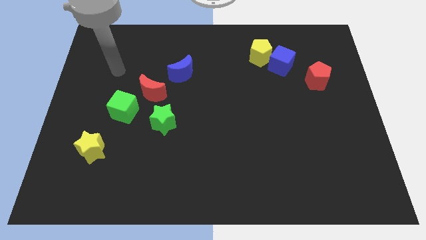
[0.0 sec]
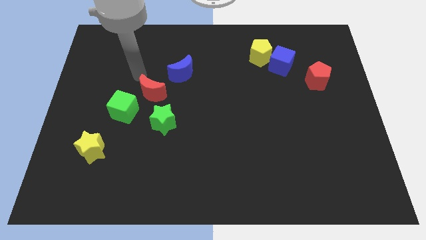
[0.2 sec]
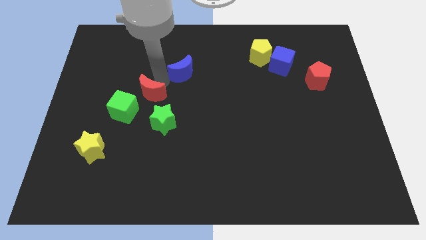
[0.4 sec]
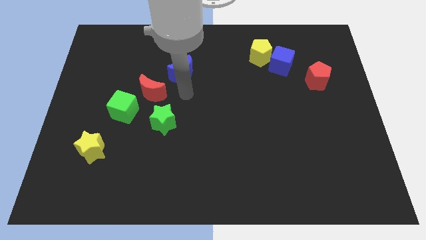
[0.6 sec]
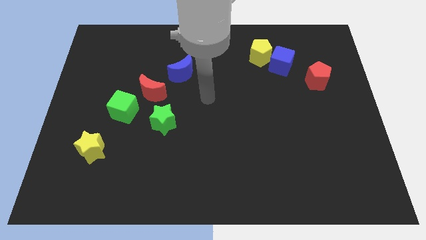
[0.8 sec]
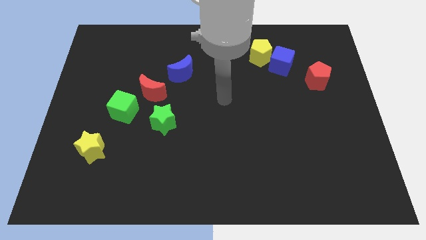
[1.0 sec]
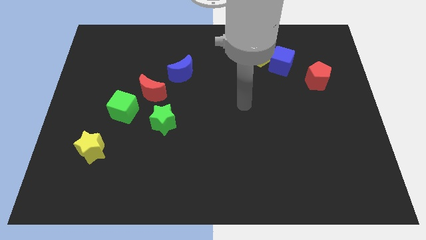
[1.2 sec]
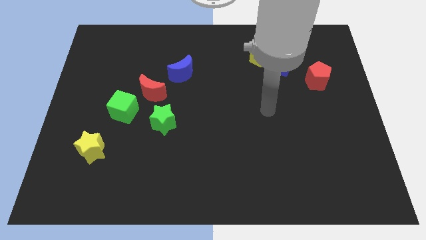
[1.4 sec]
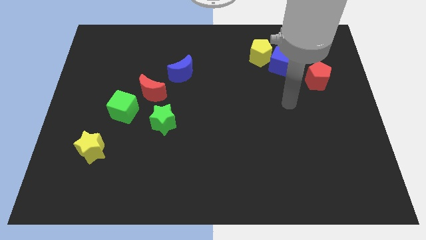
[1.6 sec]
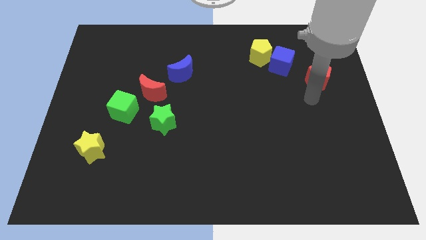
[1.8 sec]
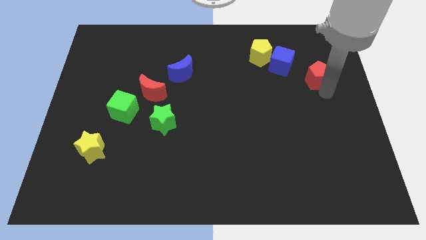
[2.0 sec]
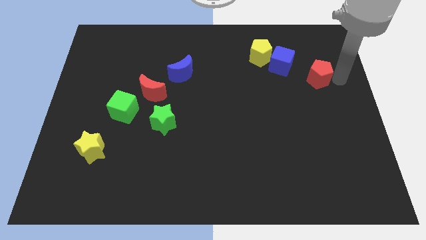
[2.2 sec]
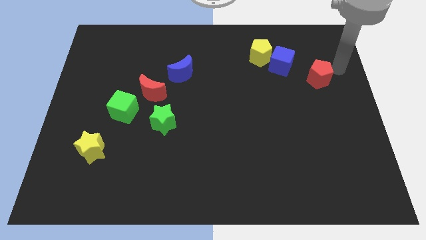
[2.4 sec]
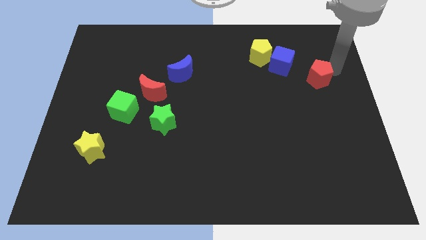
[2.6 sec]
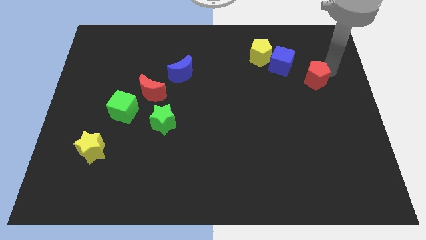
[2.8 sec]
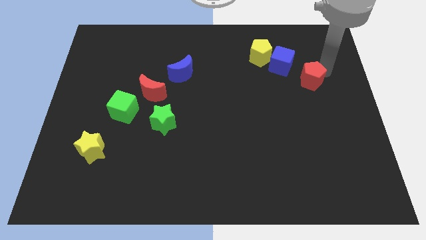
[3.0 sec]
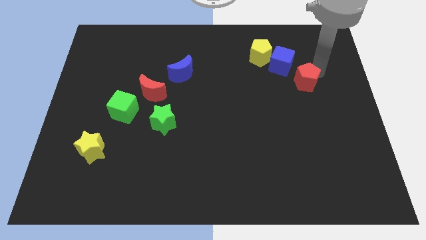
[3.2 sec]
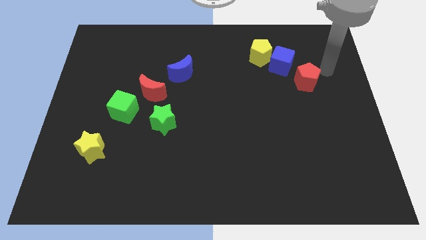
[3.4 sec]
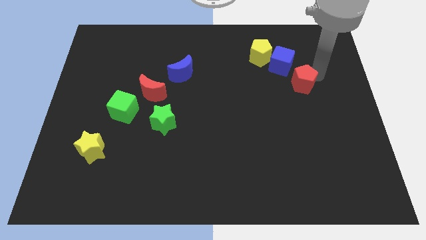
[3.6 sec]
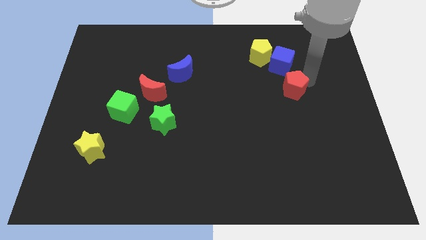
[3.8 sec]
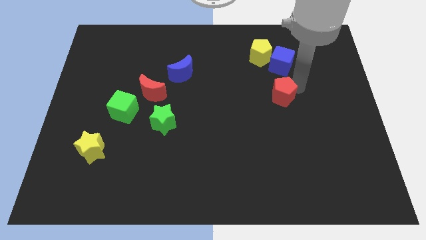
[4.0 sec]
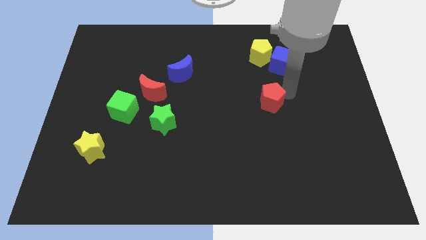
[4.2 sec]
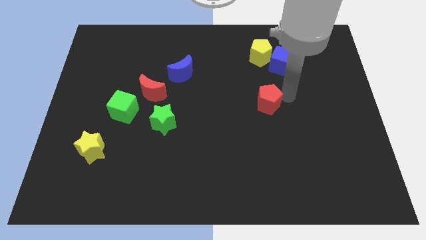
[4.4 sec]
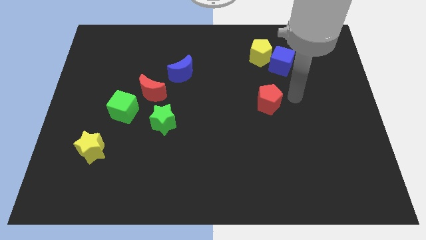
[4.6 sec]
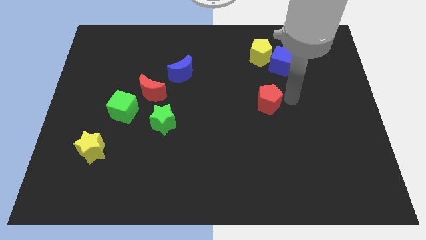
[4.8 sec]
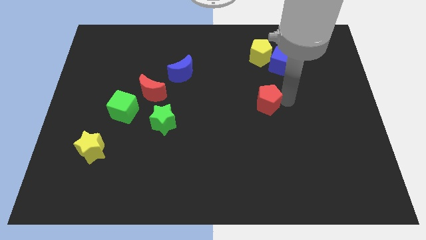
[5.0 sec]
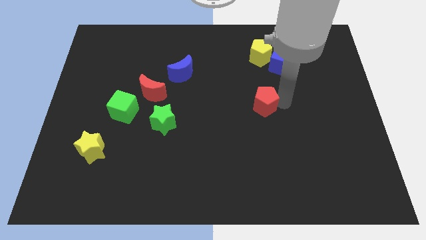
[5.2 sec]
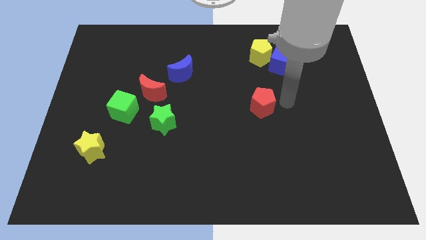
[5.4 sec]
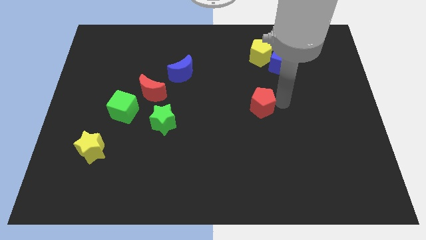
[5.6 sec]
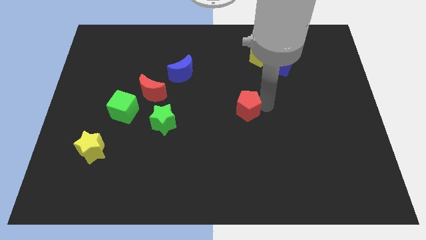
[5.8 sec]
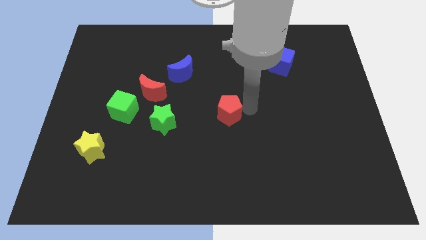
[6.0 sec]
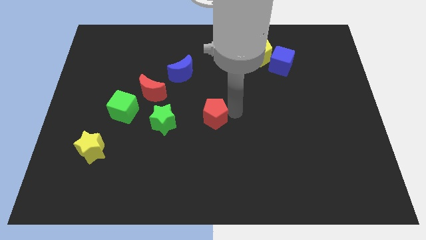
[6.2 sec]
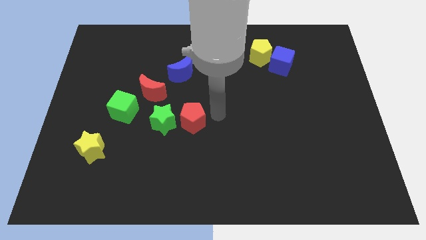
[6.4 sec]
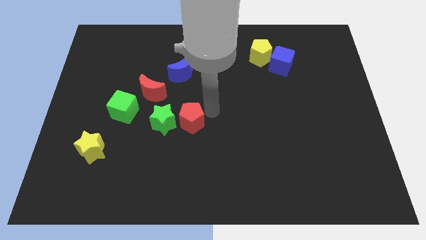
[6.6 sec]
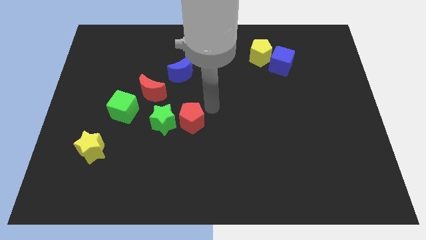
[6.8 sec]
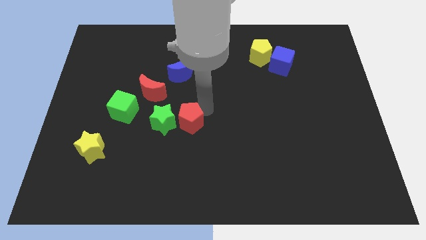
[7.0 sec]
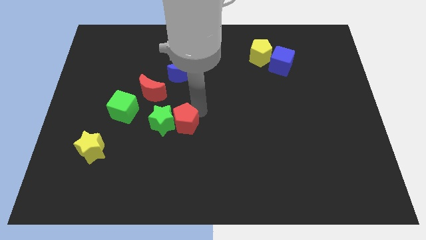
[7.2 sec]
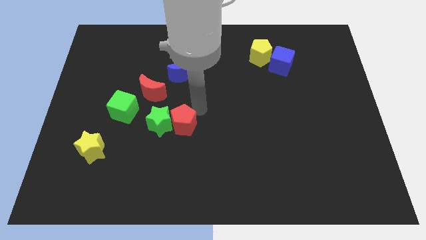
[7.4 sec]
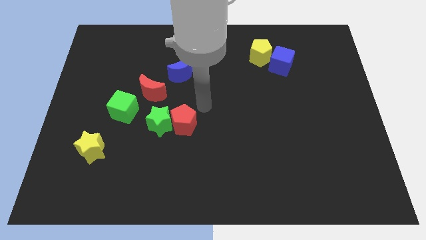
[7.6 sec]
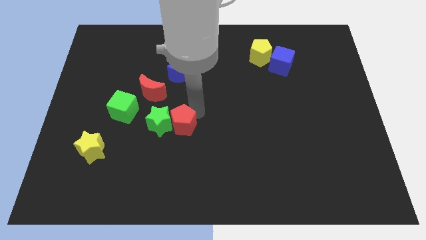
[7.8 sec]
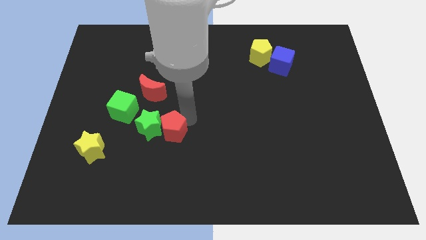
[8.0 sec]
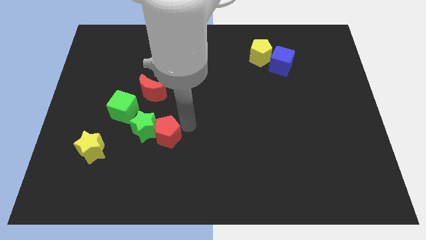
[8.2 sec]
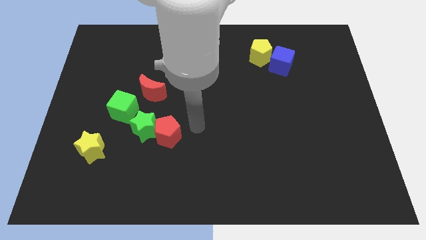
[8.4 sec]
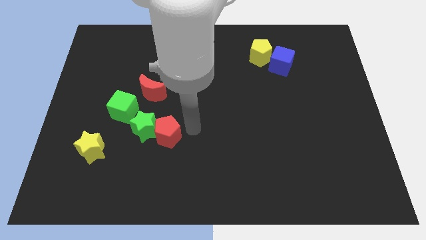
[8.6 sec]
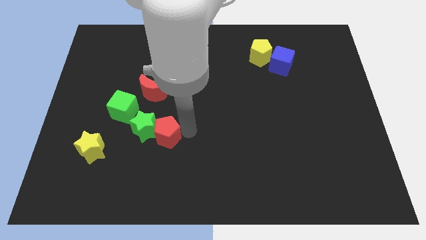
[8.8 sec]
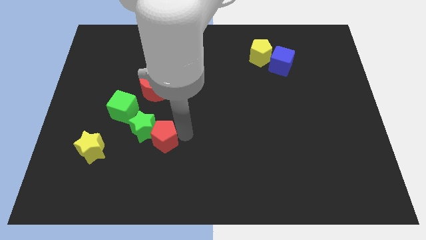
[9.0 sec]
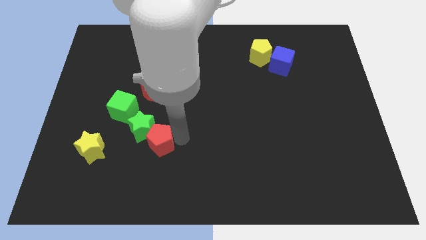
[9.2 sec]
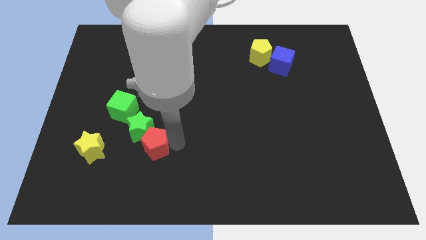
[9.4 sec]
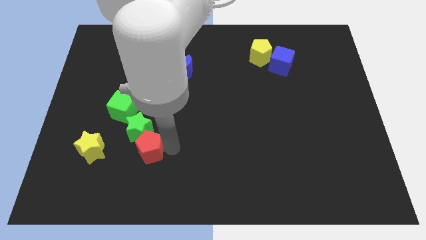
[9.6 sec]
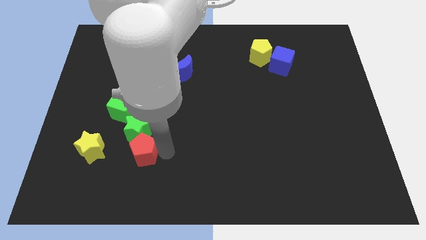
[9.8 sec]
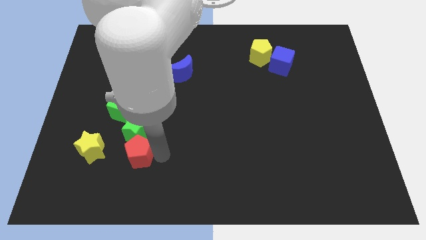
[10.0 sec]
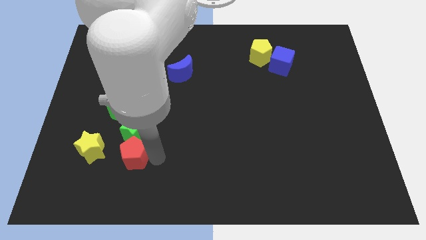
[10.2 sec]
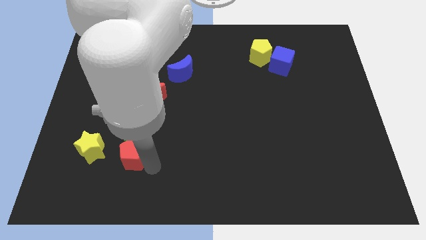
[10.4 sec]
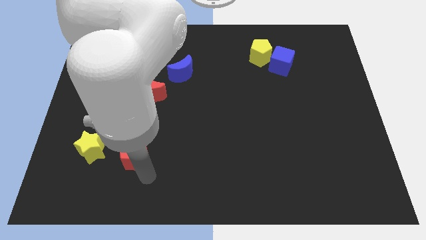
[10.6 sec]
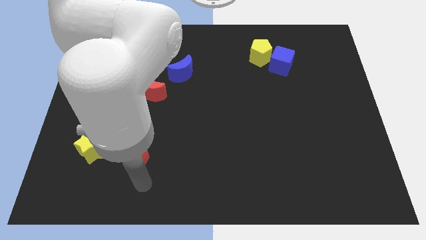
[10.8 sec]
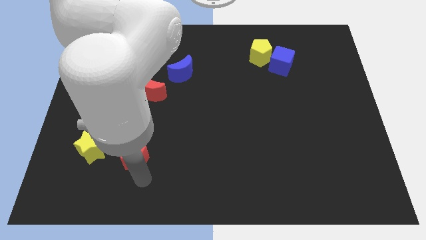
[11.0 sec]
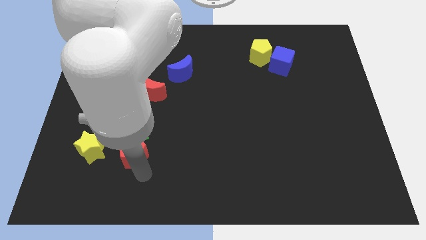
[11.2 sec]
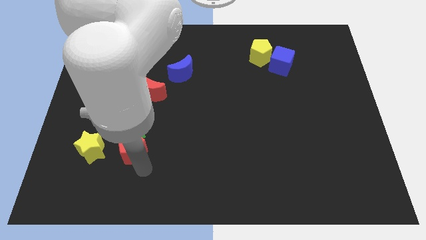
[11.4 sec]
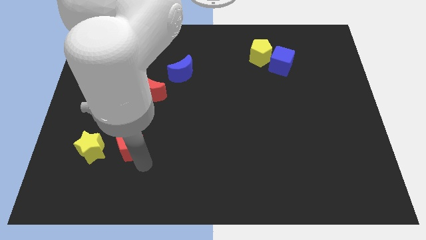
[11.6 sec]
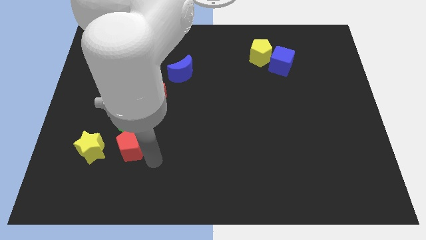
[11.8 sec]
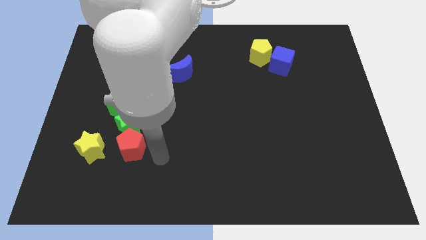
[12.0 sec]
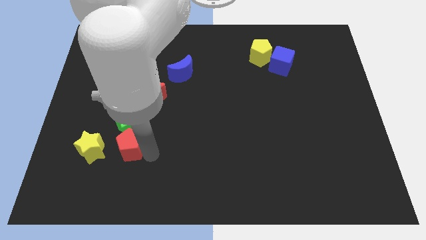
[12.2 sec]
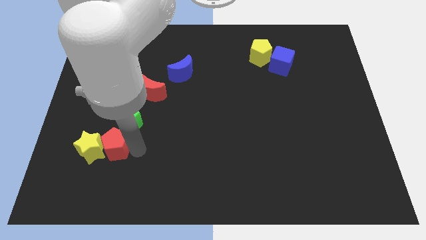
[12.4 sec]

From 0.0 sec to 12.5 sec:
move the red pentagon close to the yellow star

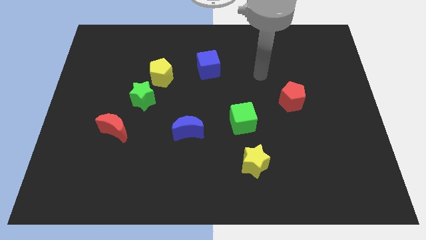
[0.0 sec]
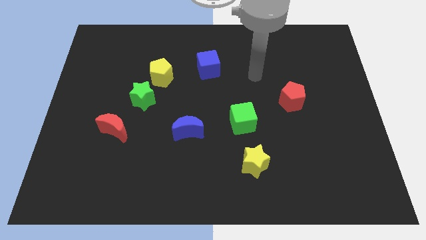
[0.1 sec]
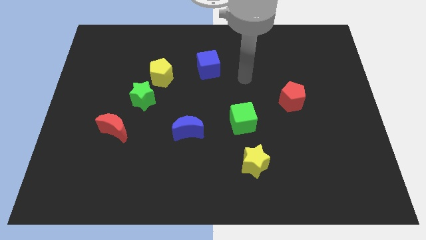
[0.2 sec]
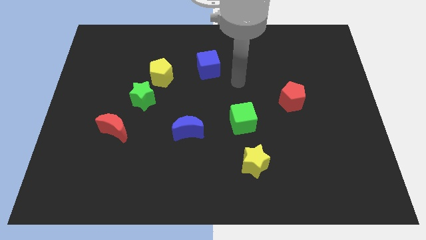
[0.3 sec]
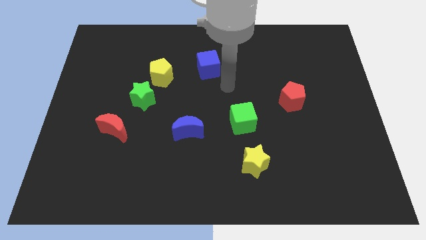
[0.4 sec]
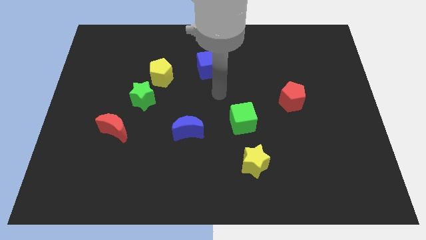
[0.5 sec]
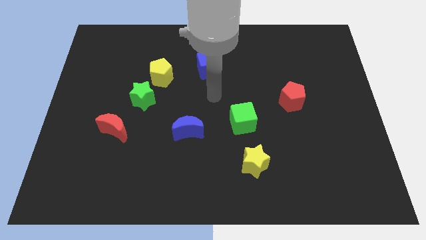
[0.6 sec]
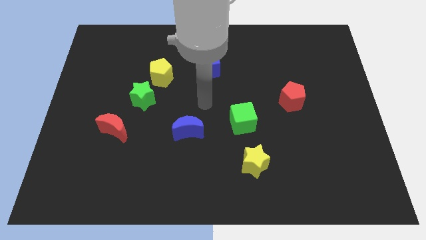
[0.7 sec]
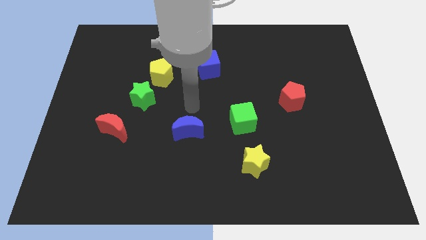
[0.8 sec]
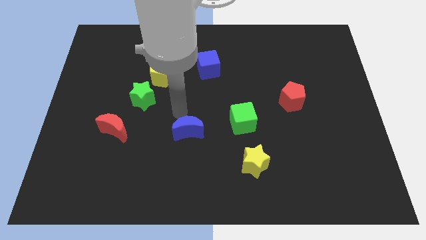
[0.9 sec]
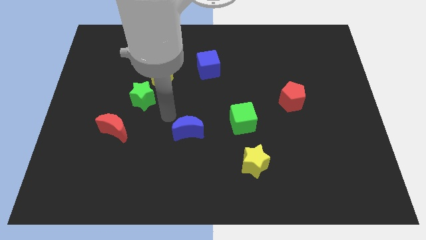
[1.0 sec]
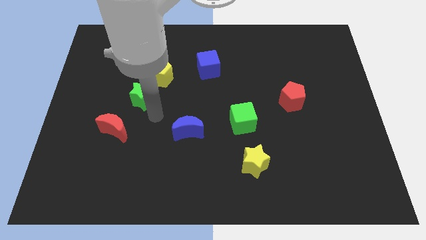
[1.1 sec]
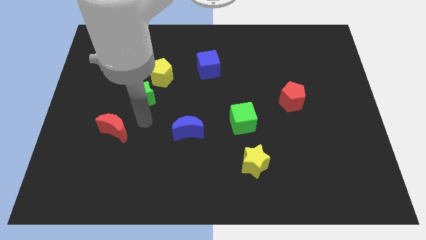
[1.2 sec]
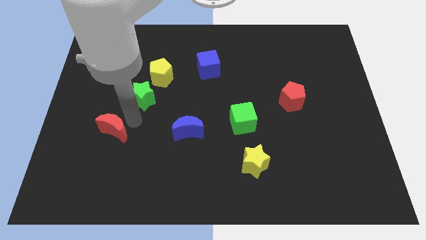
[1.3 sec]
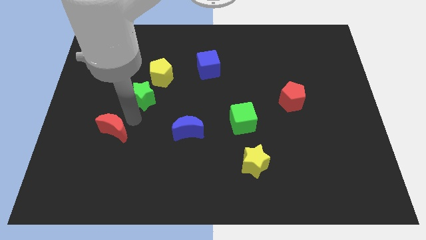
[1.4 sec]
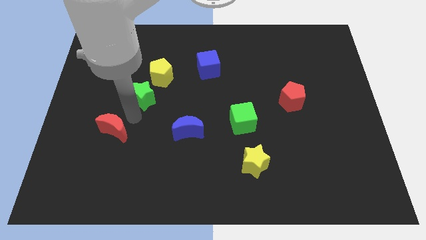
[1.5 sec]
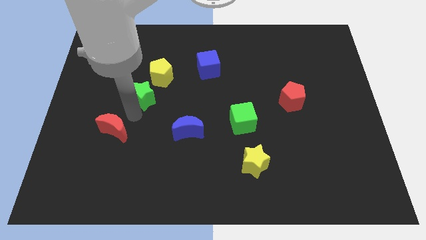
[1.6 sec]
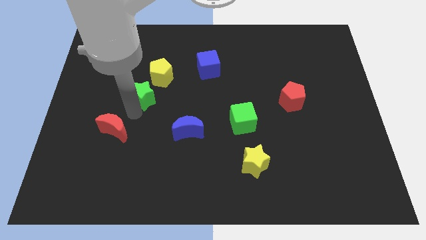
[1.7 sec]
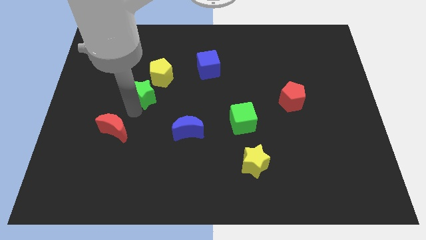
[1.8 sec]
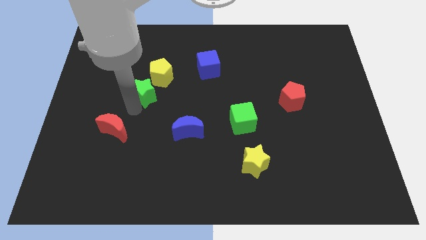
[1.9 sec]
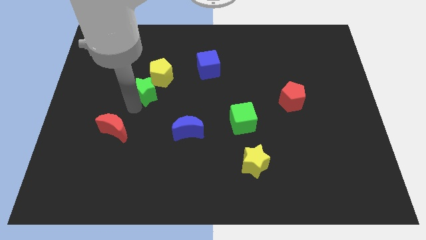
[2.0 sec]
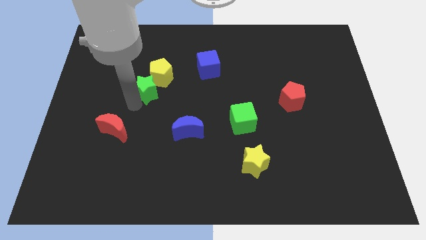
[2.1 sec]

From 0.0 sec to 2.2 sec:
slide the green star close to the yellow pentagon
